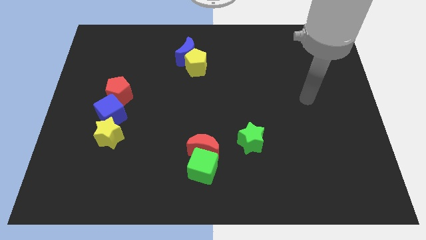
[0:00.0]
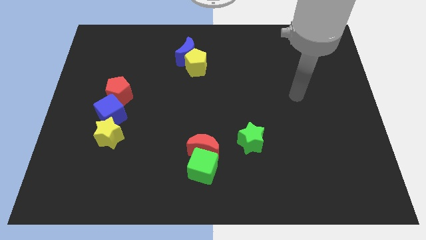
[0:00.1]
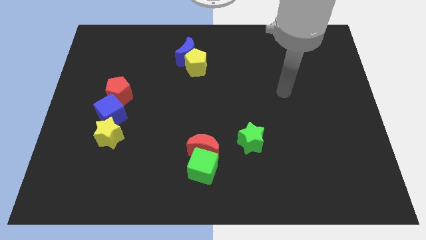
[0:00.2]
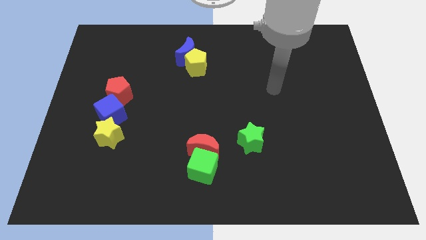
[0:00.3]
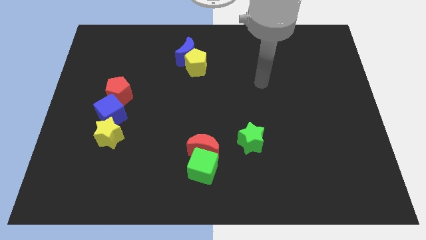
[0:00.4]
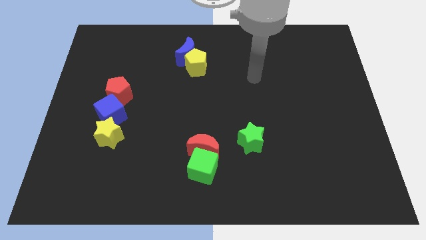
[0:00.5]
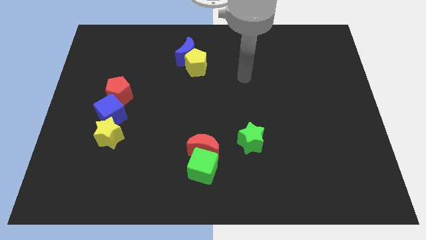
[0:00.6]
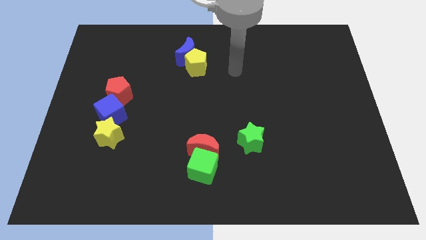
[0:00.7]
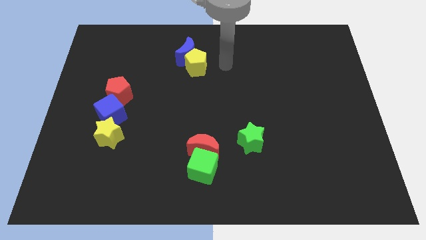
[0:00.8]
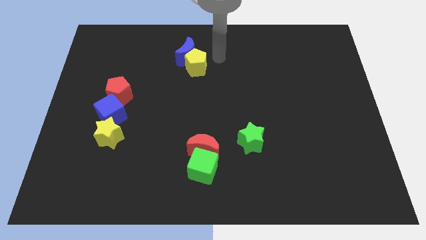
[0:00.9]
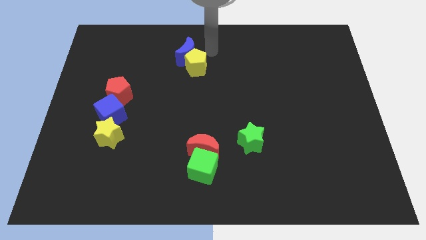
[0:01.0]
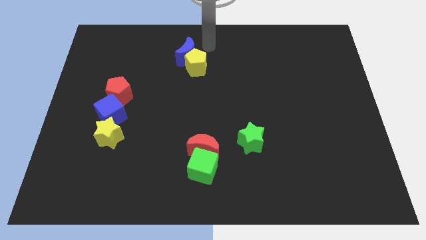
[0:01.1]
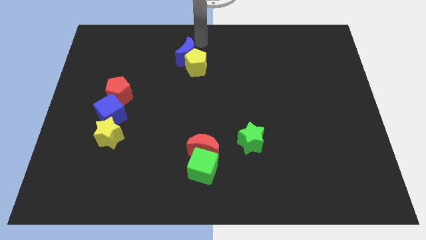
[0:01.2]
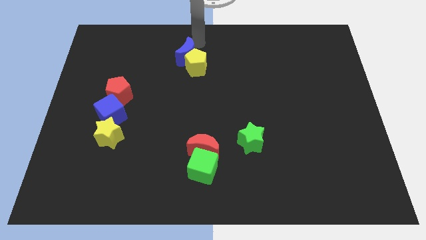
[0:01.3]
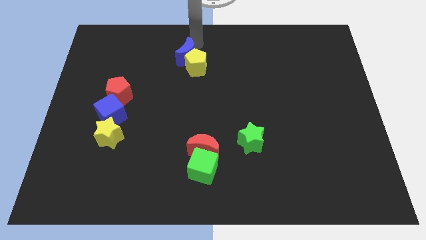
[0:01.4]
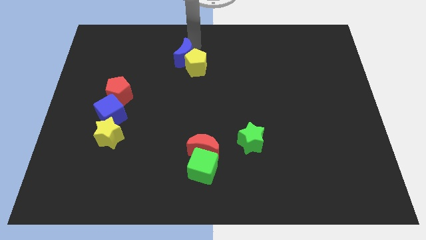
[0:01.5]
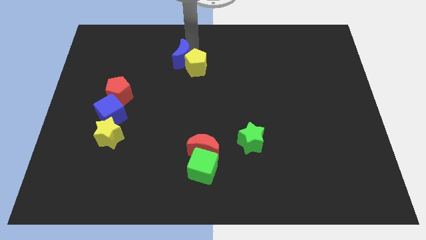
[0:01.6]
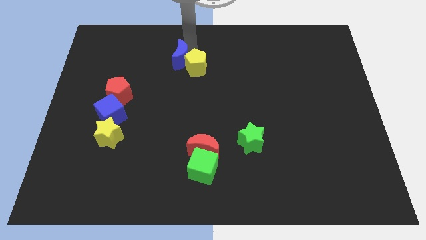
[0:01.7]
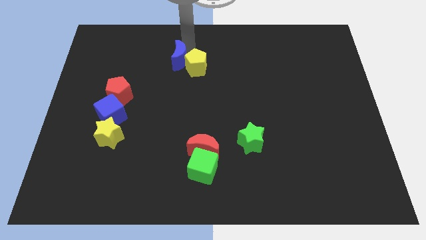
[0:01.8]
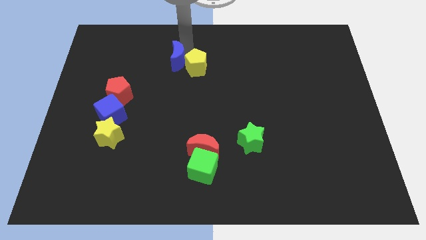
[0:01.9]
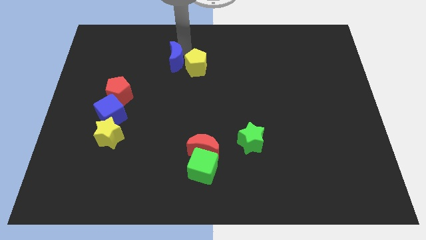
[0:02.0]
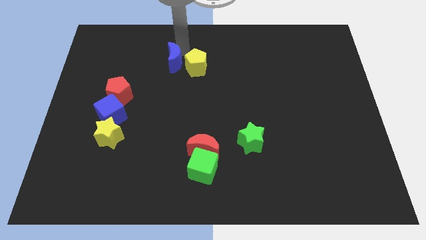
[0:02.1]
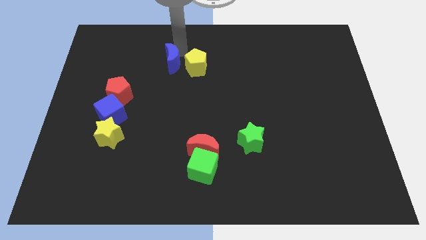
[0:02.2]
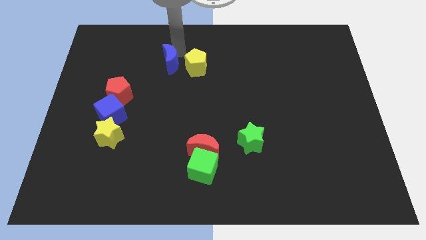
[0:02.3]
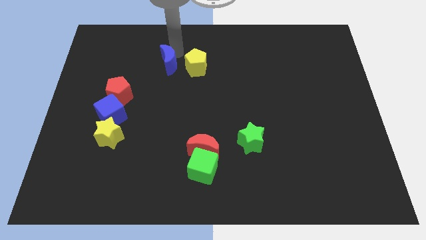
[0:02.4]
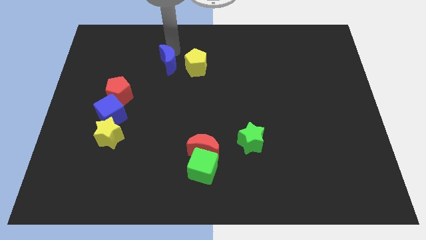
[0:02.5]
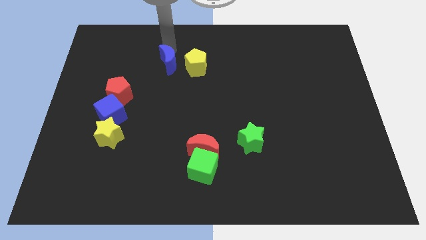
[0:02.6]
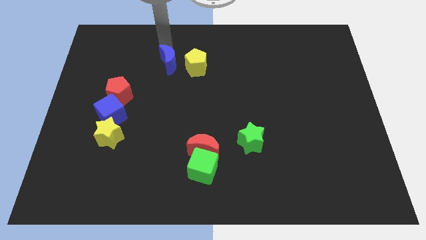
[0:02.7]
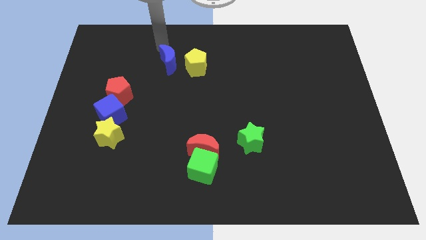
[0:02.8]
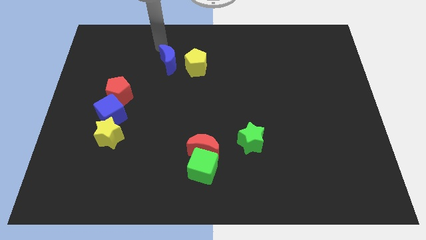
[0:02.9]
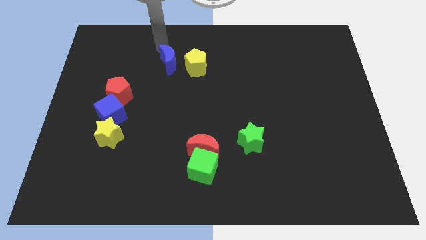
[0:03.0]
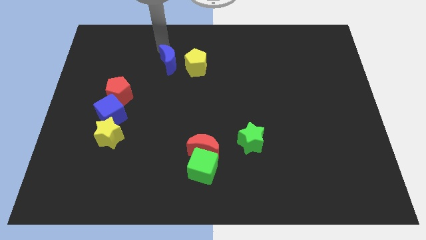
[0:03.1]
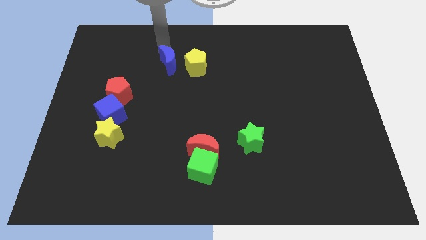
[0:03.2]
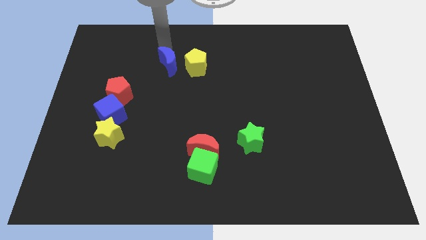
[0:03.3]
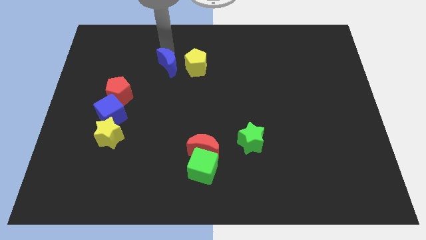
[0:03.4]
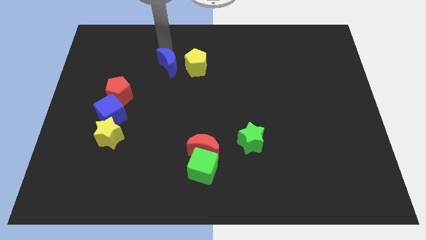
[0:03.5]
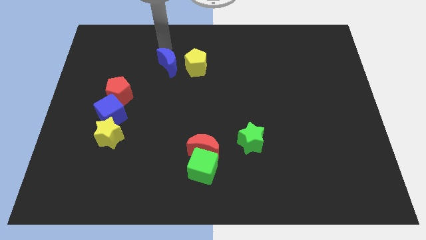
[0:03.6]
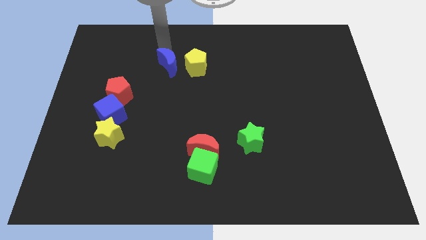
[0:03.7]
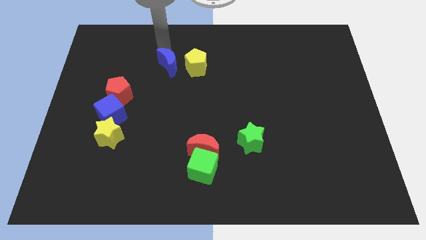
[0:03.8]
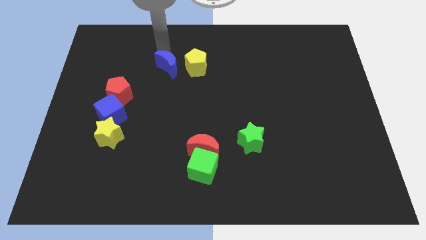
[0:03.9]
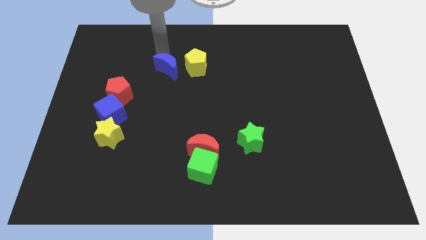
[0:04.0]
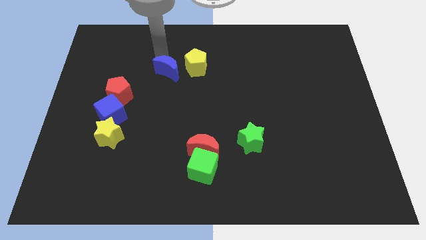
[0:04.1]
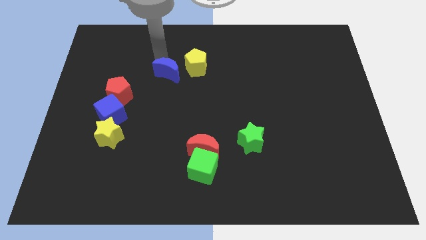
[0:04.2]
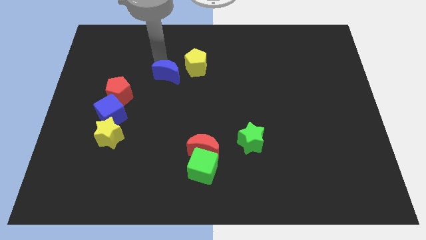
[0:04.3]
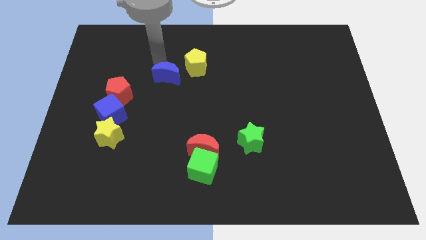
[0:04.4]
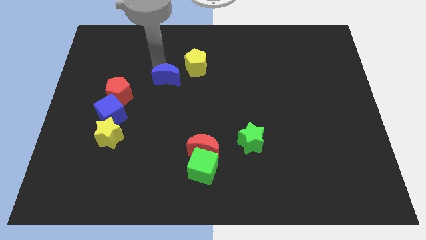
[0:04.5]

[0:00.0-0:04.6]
move the blue moon slightly downwards

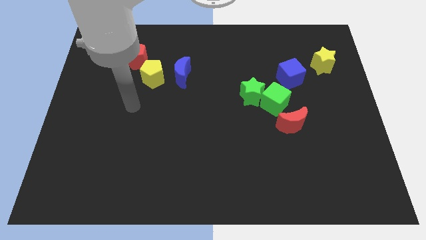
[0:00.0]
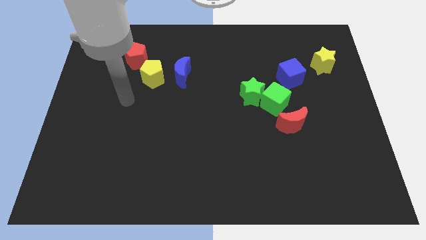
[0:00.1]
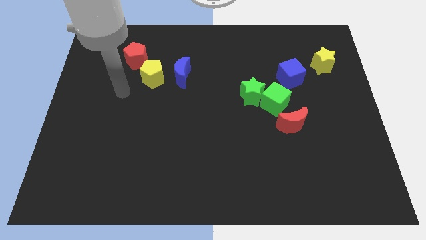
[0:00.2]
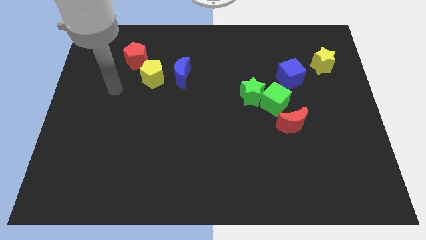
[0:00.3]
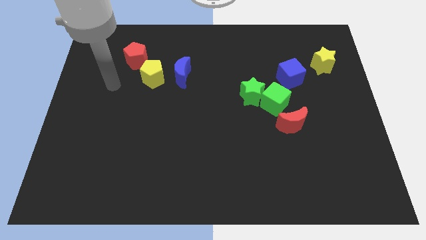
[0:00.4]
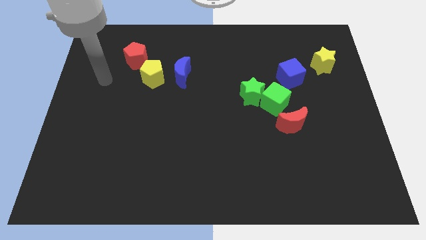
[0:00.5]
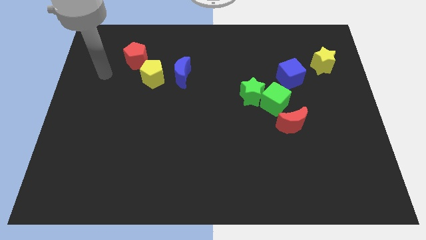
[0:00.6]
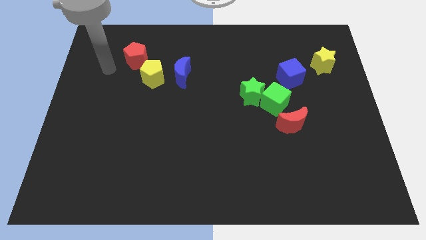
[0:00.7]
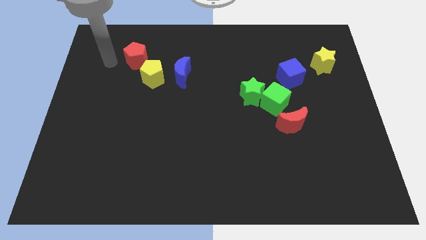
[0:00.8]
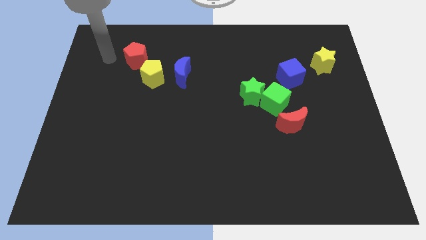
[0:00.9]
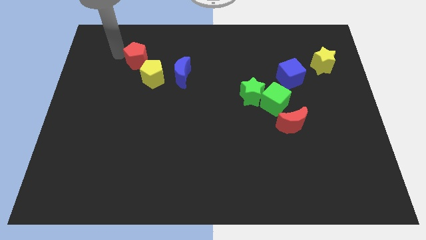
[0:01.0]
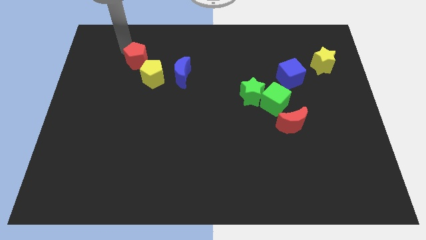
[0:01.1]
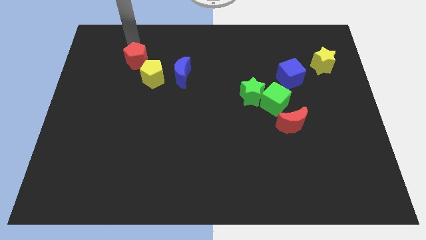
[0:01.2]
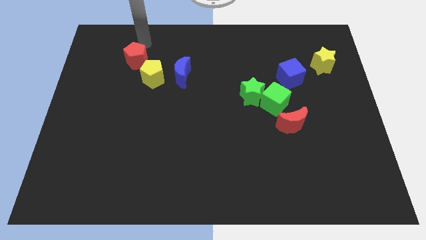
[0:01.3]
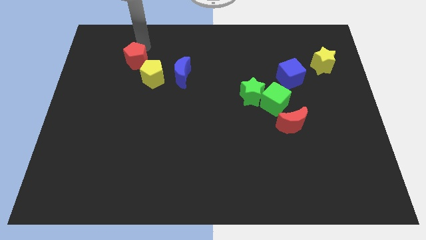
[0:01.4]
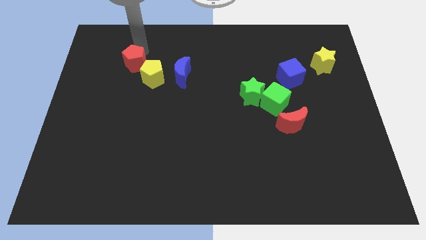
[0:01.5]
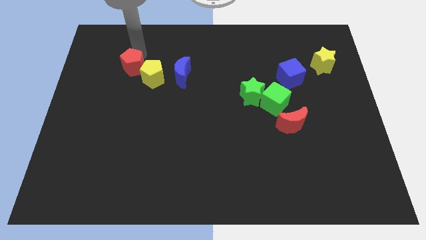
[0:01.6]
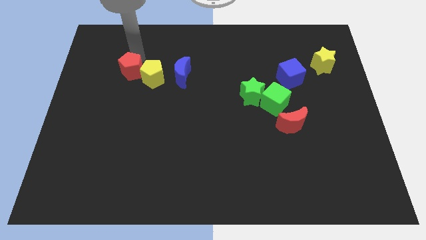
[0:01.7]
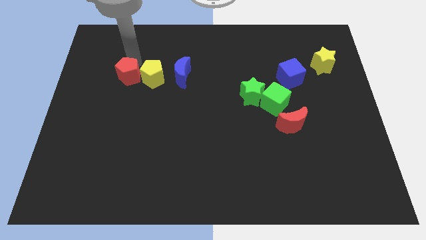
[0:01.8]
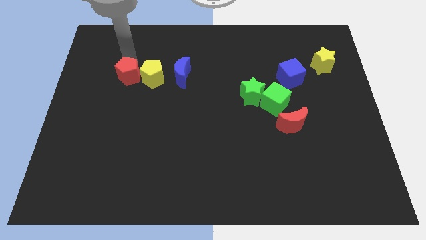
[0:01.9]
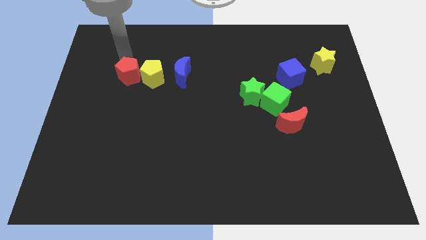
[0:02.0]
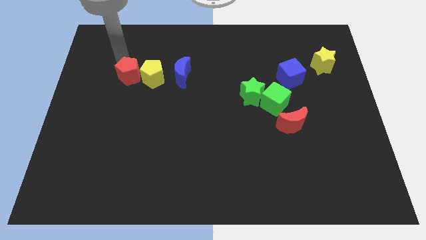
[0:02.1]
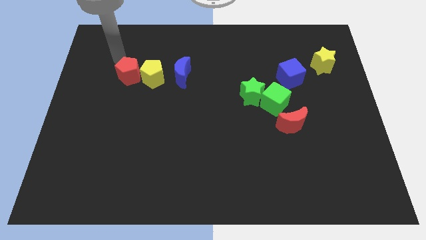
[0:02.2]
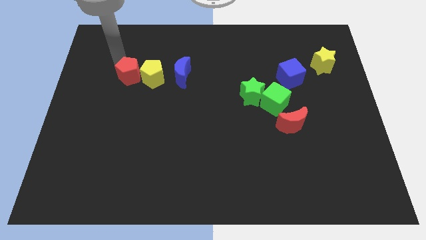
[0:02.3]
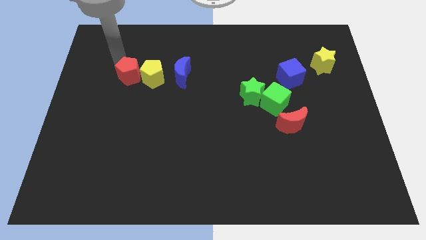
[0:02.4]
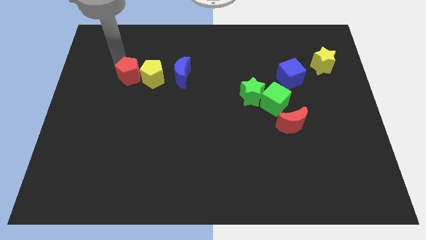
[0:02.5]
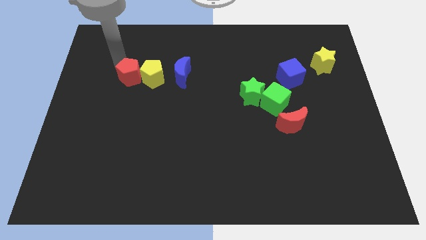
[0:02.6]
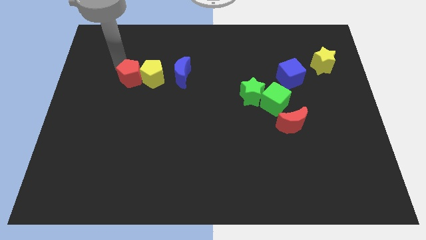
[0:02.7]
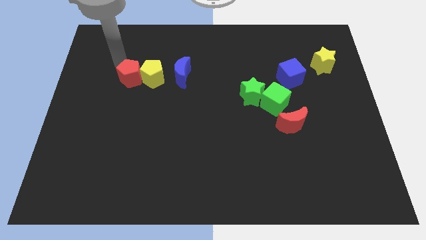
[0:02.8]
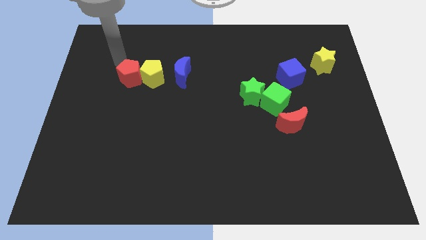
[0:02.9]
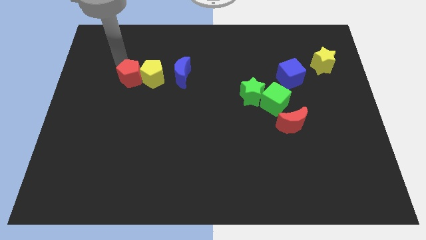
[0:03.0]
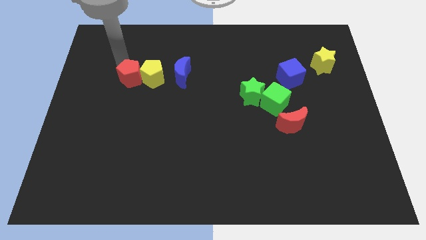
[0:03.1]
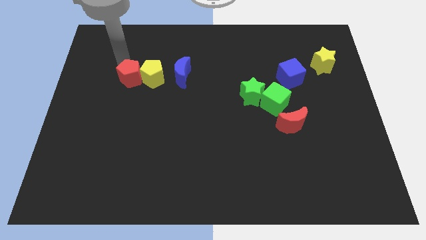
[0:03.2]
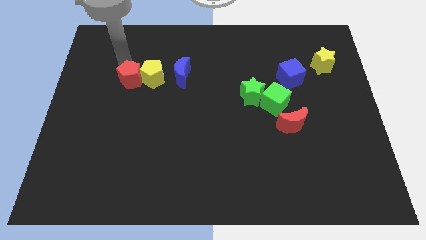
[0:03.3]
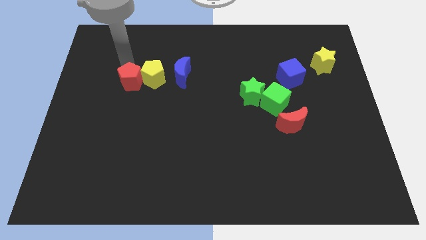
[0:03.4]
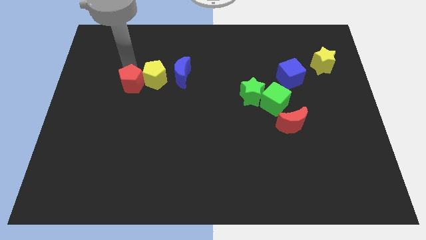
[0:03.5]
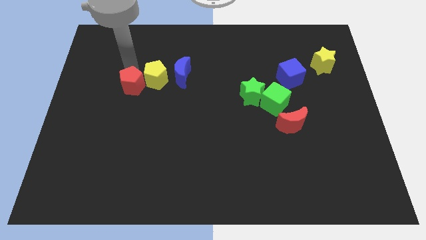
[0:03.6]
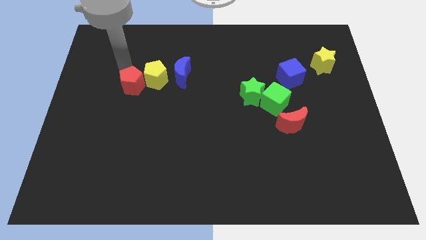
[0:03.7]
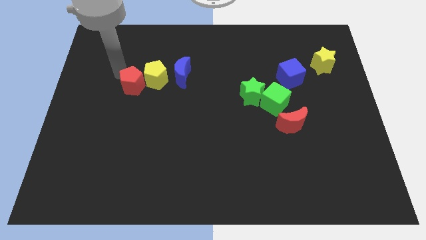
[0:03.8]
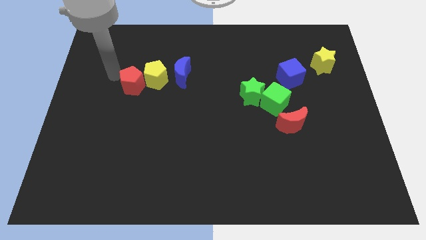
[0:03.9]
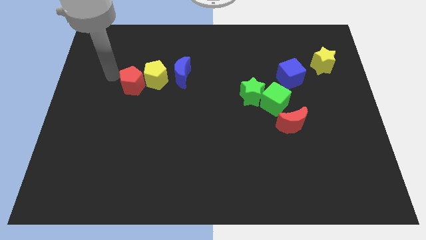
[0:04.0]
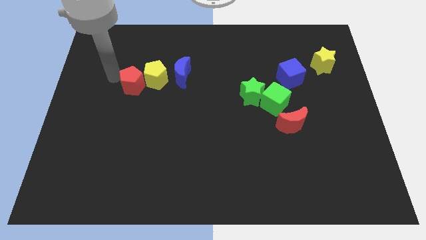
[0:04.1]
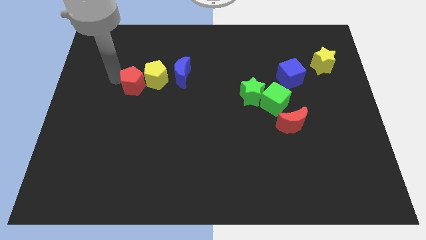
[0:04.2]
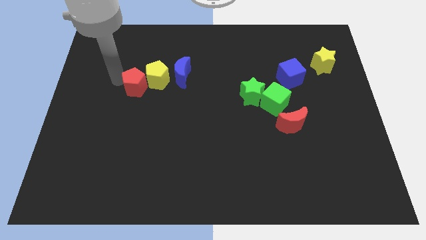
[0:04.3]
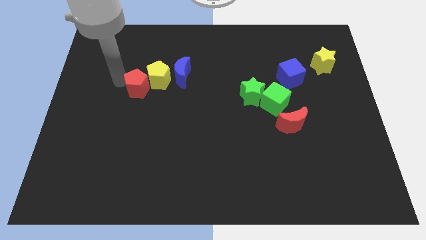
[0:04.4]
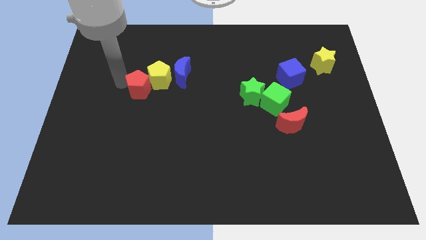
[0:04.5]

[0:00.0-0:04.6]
push the red pentagon slightly downwards and then right
